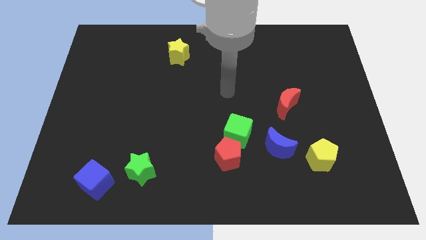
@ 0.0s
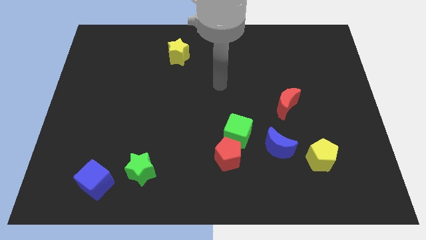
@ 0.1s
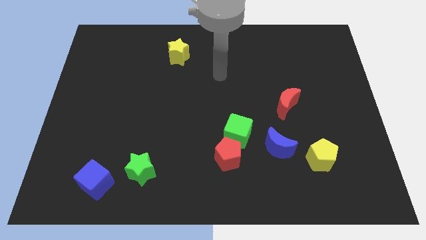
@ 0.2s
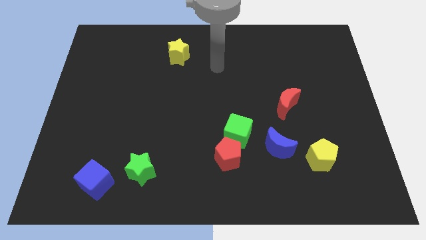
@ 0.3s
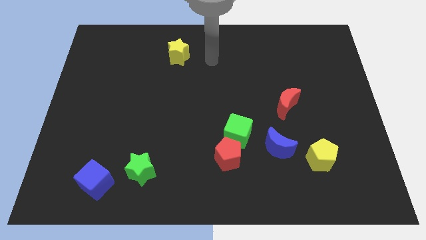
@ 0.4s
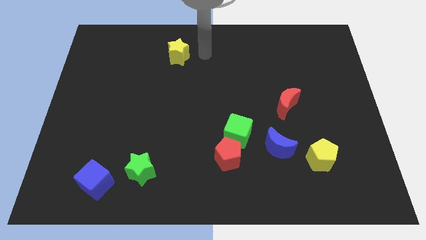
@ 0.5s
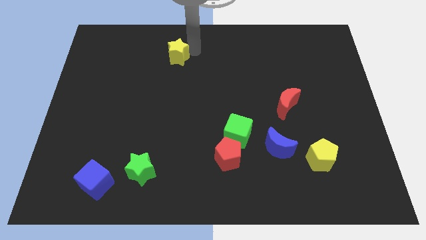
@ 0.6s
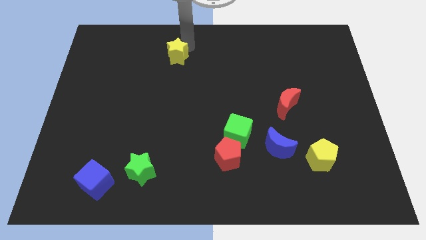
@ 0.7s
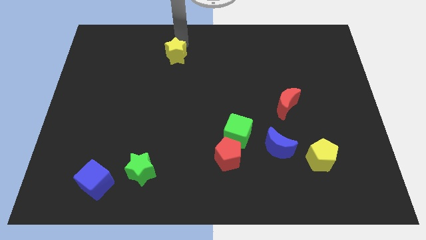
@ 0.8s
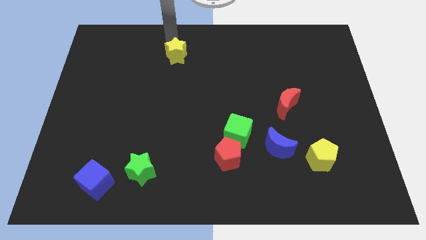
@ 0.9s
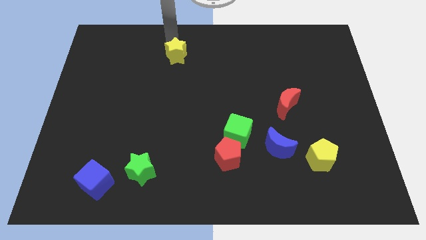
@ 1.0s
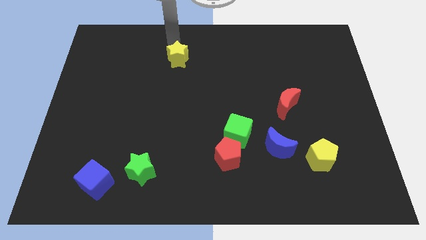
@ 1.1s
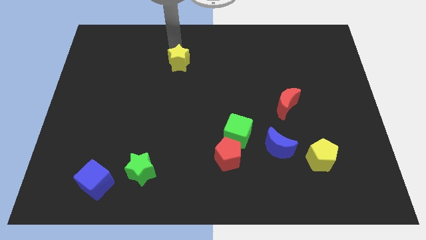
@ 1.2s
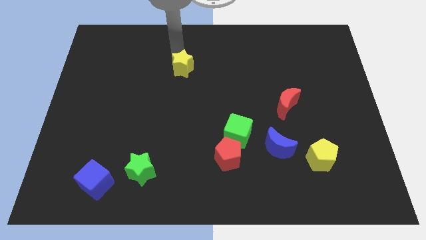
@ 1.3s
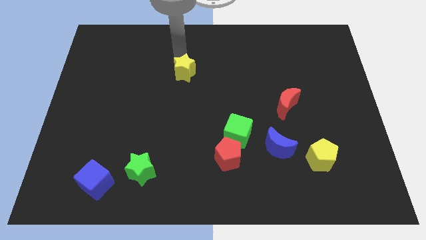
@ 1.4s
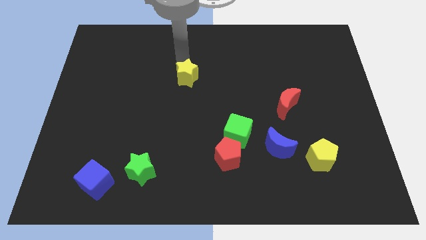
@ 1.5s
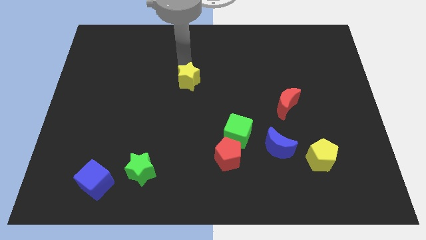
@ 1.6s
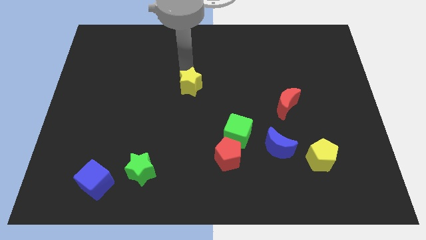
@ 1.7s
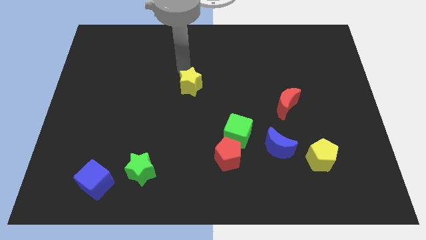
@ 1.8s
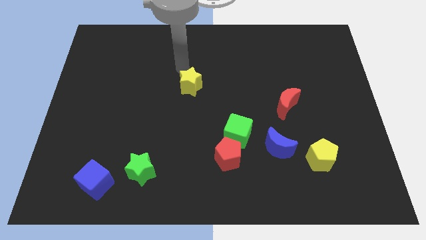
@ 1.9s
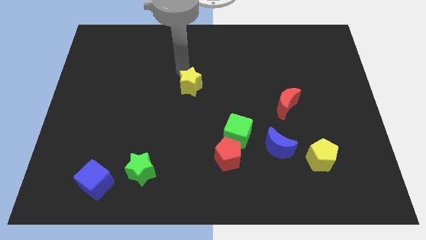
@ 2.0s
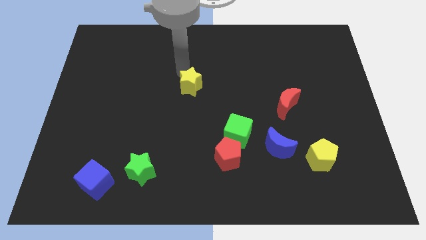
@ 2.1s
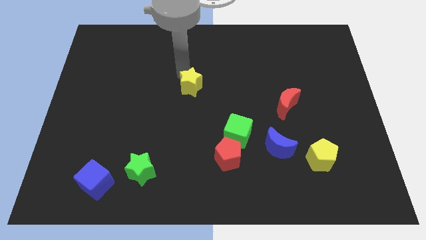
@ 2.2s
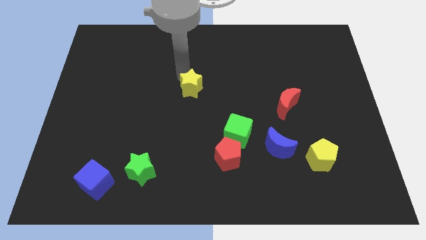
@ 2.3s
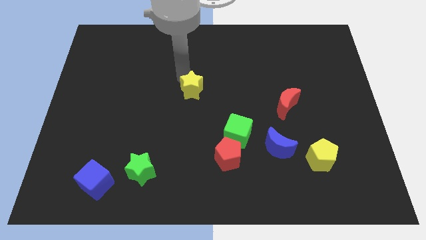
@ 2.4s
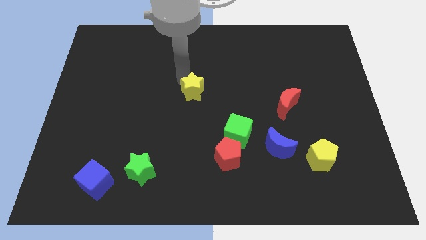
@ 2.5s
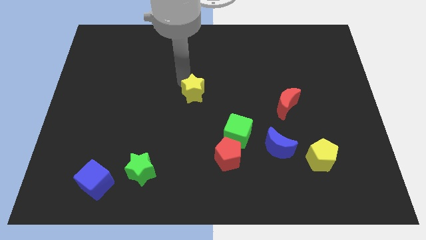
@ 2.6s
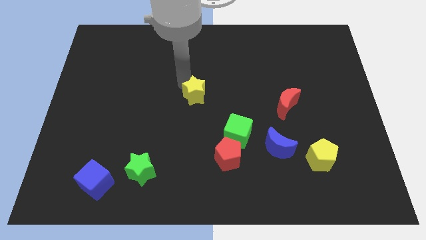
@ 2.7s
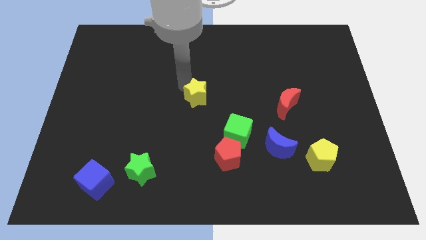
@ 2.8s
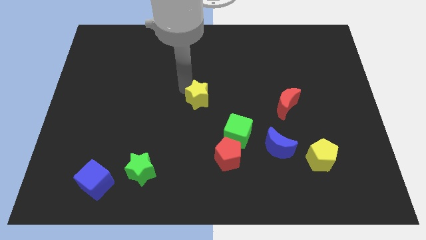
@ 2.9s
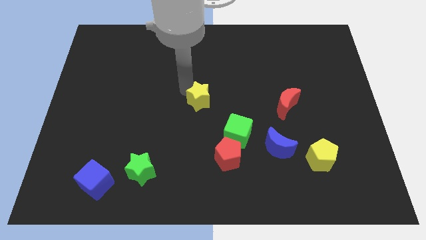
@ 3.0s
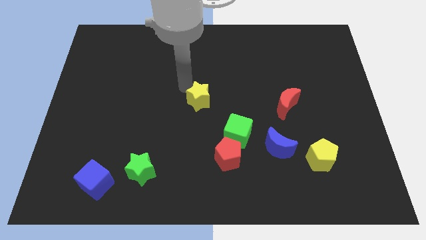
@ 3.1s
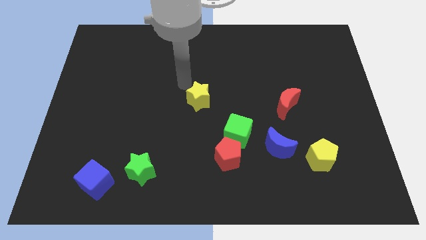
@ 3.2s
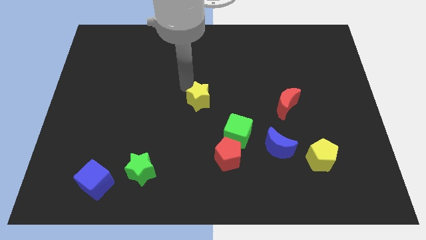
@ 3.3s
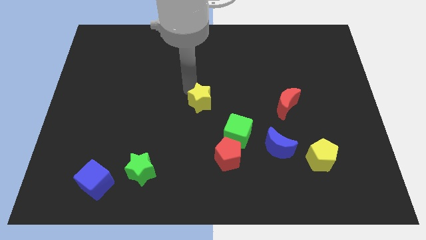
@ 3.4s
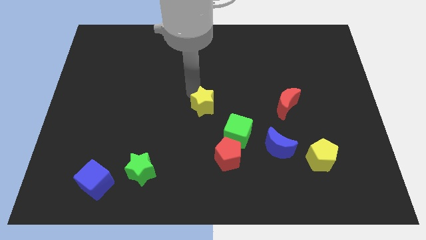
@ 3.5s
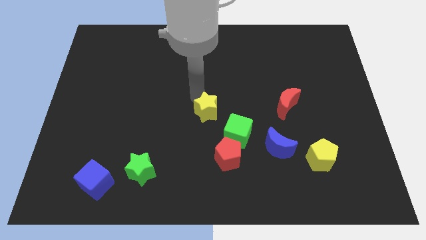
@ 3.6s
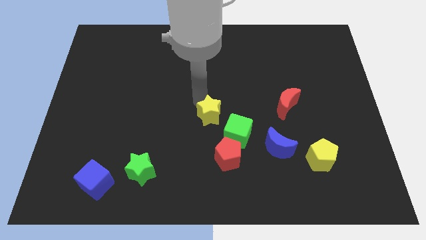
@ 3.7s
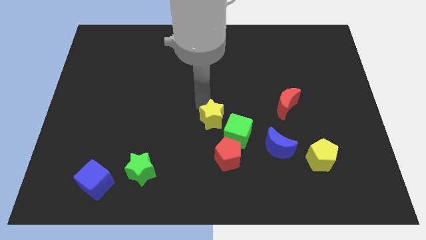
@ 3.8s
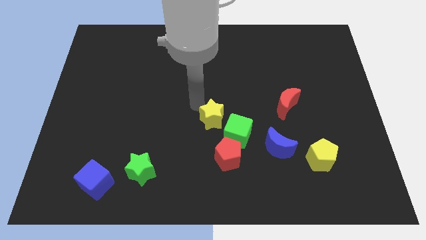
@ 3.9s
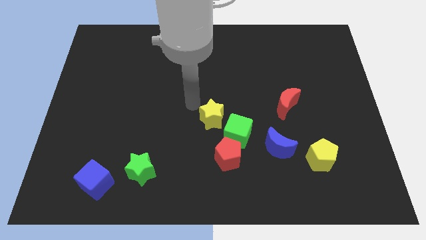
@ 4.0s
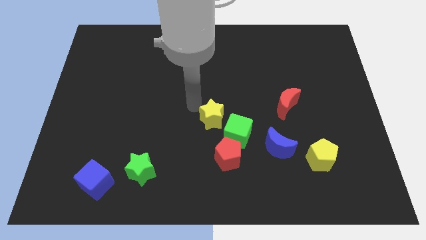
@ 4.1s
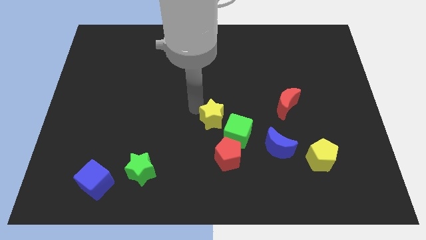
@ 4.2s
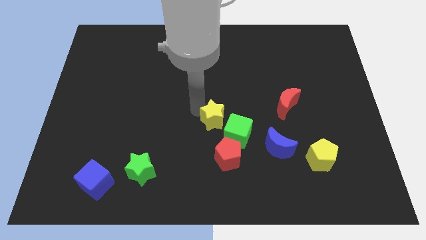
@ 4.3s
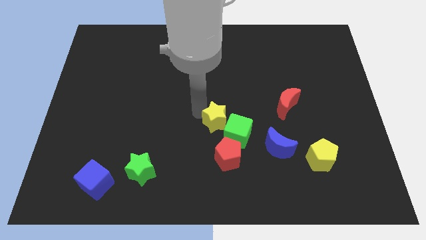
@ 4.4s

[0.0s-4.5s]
move the yellow star towards the green cube

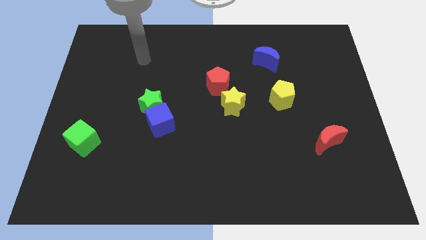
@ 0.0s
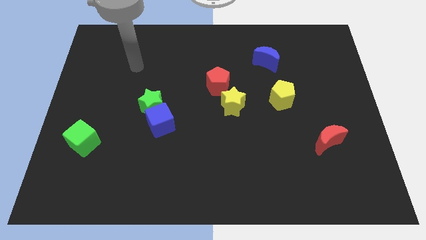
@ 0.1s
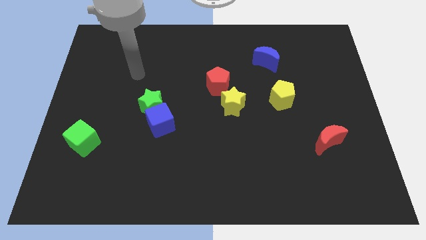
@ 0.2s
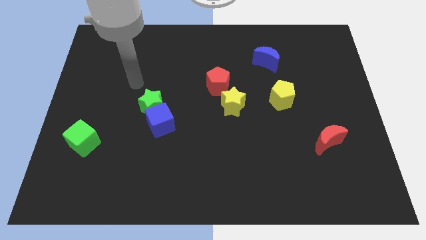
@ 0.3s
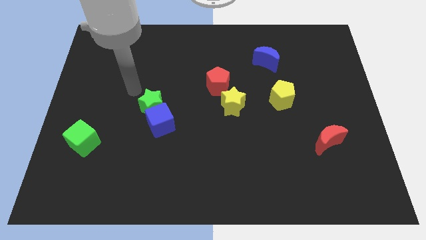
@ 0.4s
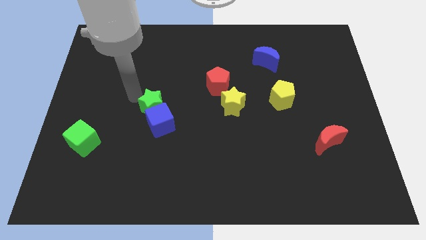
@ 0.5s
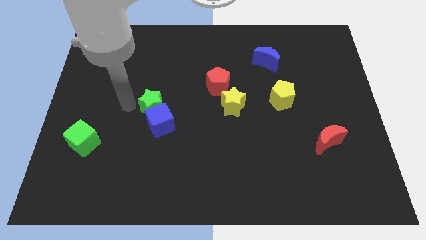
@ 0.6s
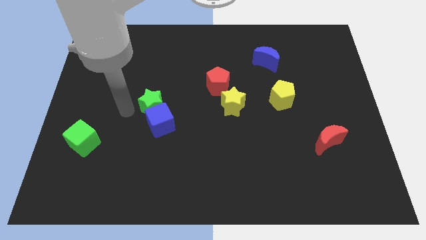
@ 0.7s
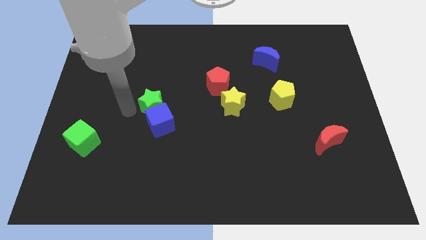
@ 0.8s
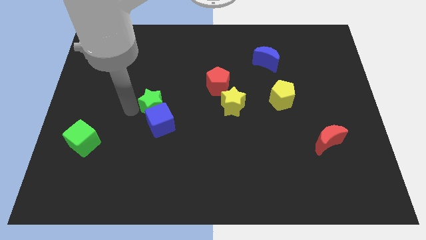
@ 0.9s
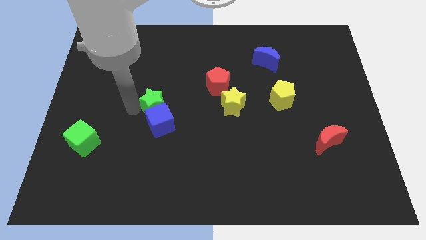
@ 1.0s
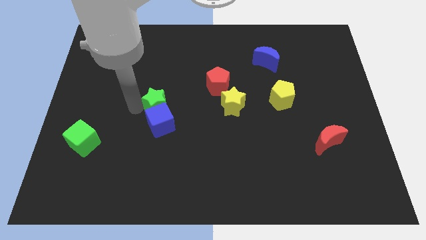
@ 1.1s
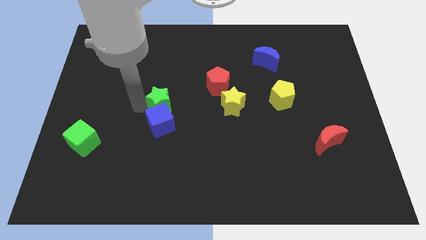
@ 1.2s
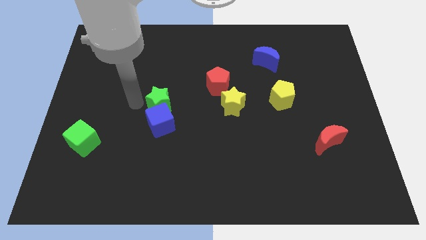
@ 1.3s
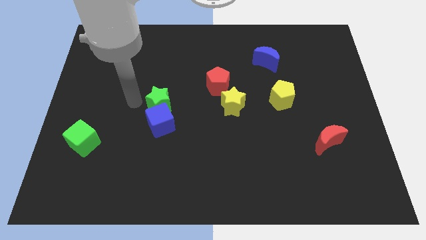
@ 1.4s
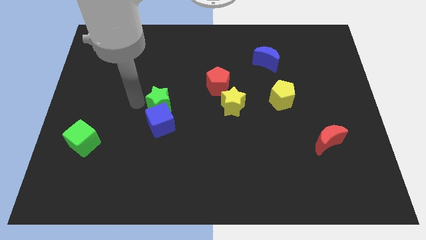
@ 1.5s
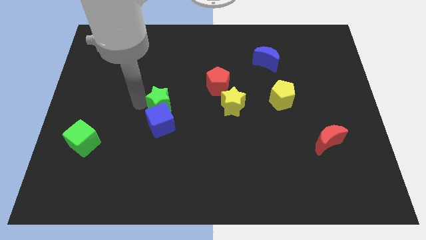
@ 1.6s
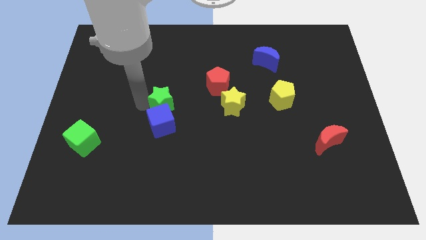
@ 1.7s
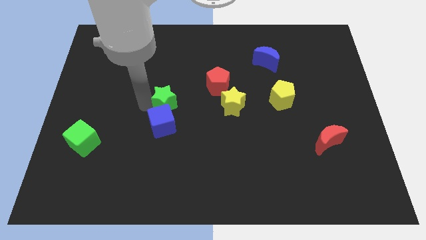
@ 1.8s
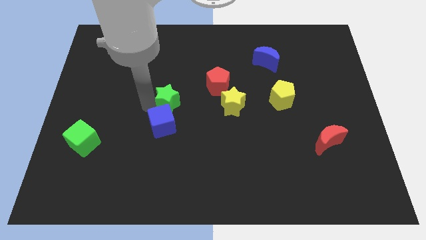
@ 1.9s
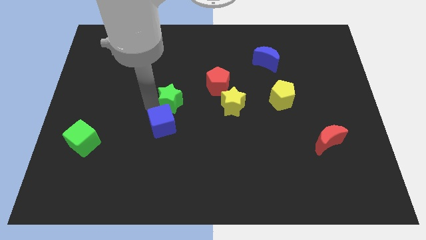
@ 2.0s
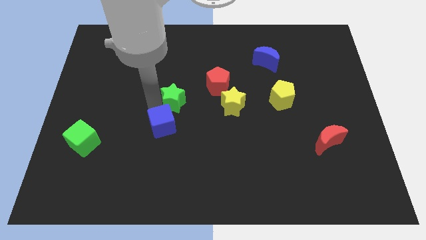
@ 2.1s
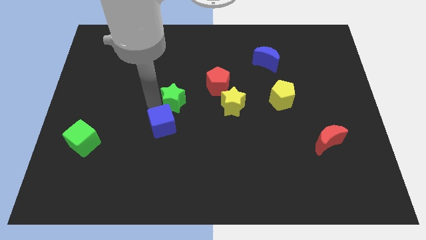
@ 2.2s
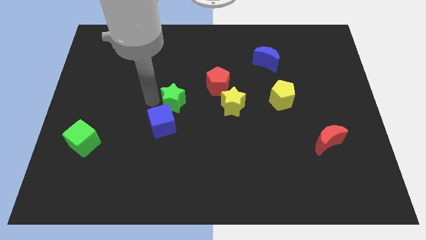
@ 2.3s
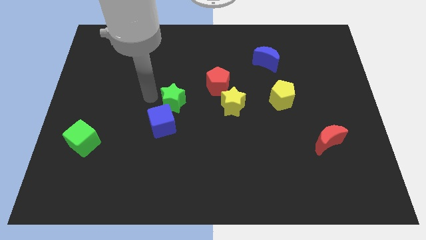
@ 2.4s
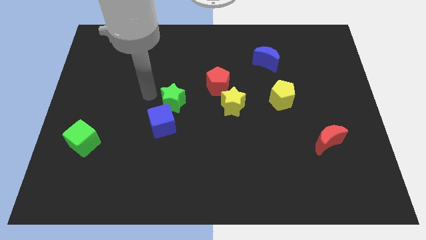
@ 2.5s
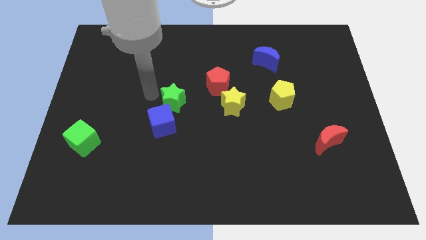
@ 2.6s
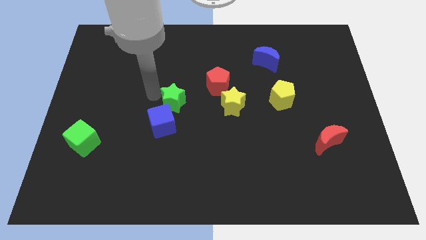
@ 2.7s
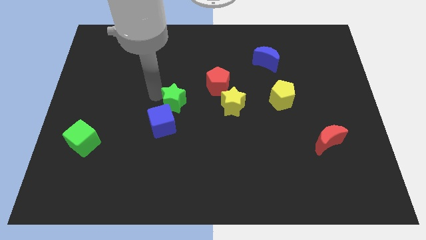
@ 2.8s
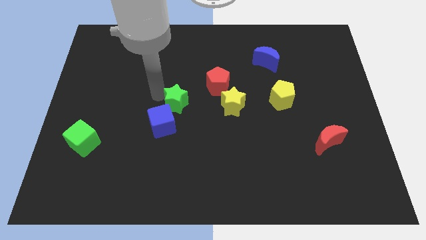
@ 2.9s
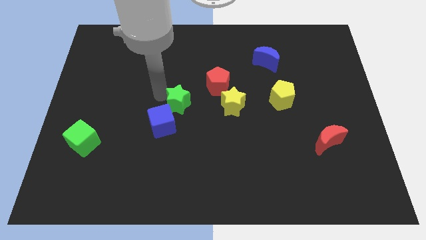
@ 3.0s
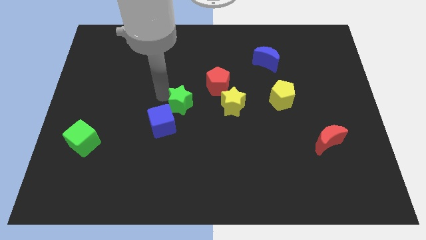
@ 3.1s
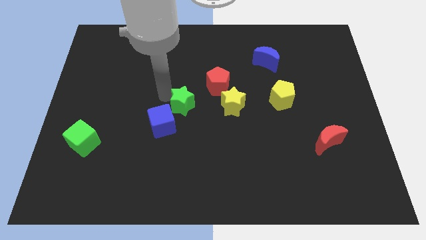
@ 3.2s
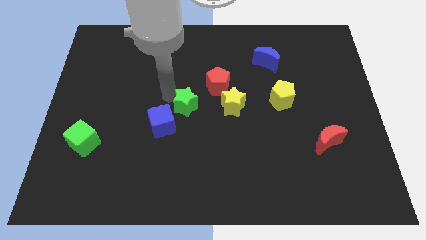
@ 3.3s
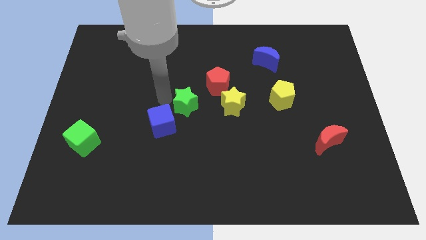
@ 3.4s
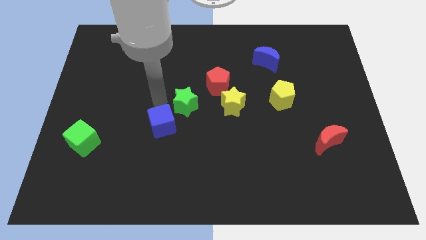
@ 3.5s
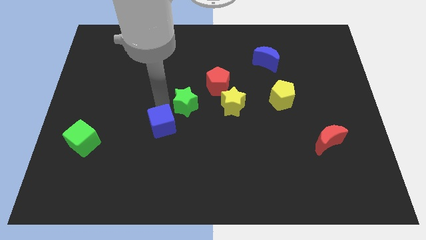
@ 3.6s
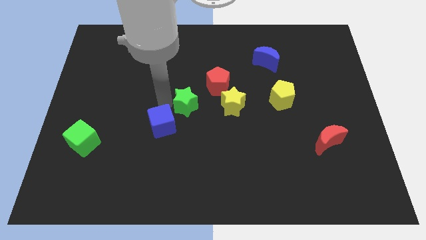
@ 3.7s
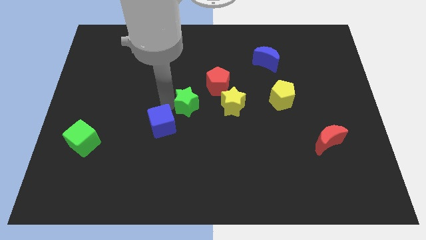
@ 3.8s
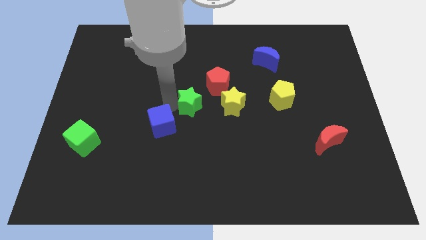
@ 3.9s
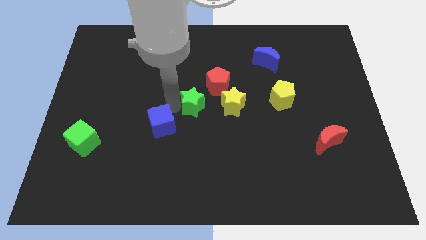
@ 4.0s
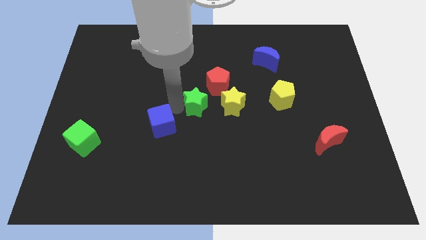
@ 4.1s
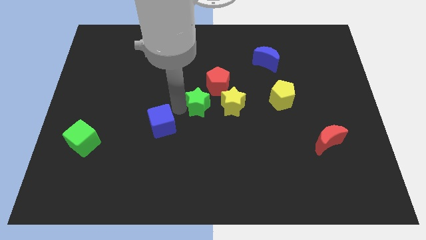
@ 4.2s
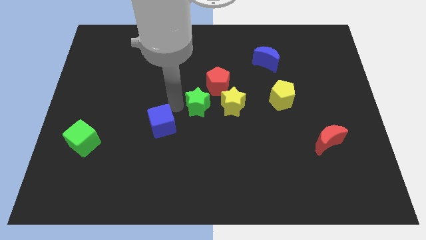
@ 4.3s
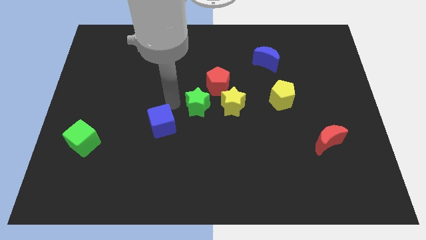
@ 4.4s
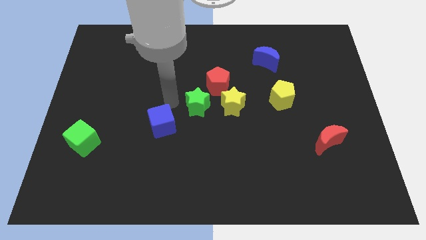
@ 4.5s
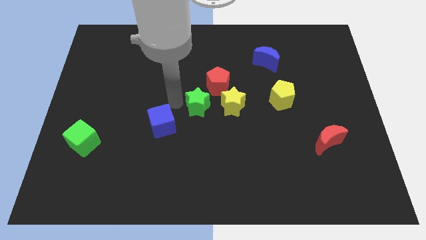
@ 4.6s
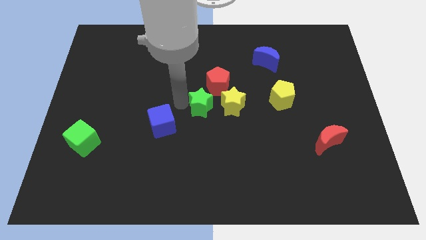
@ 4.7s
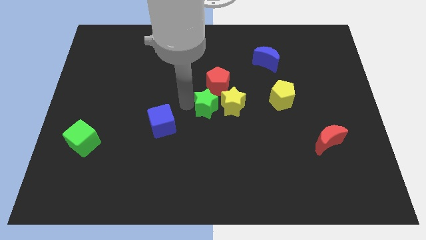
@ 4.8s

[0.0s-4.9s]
put the green star to the yellow star
